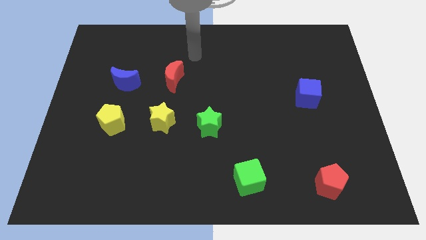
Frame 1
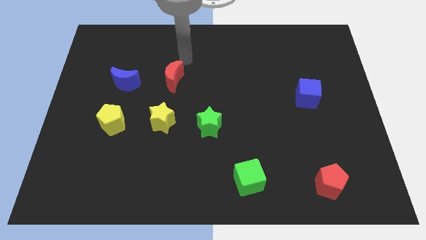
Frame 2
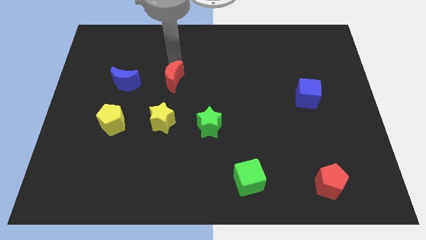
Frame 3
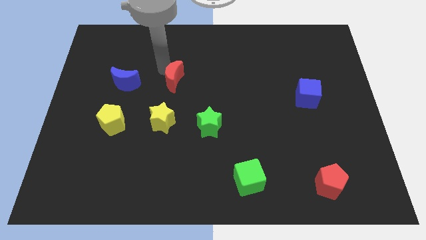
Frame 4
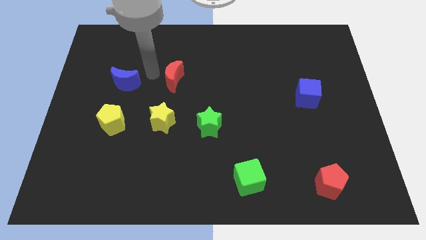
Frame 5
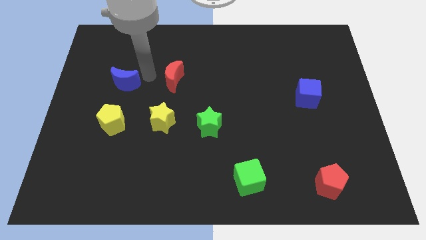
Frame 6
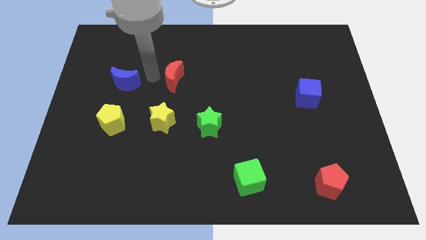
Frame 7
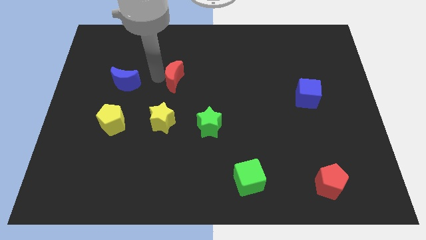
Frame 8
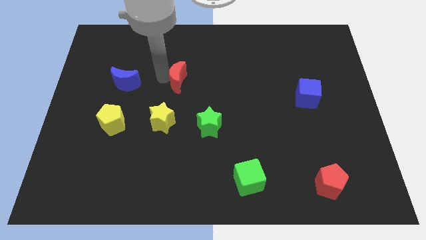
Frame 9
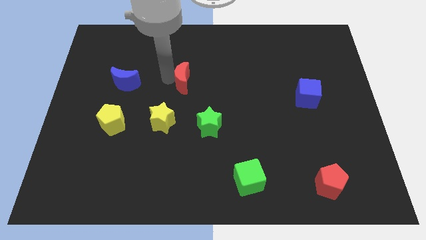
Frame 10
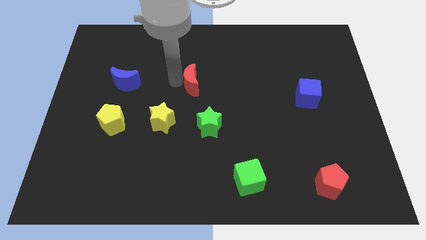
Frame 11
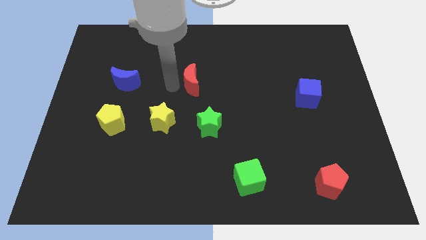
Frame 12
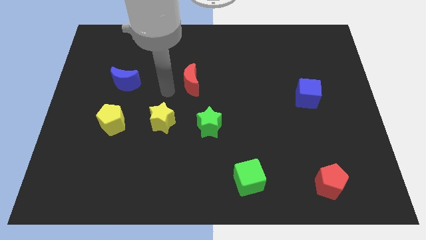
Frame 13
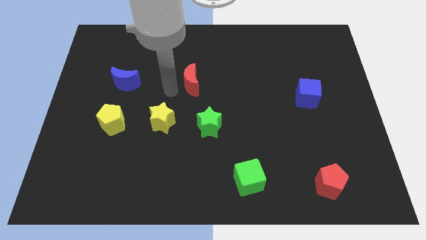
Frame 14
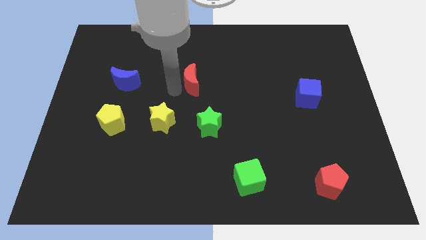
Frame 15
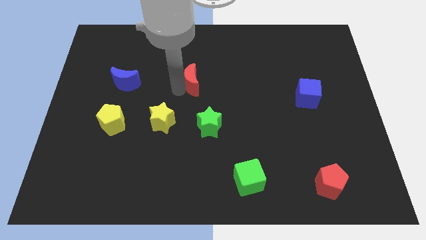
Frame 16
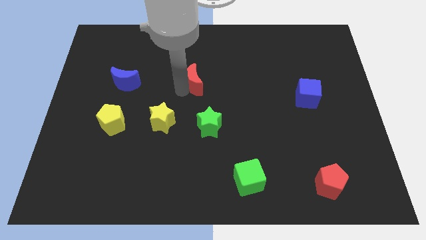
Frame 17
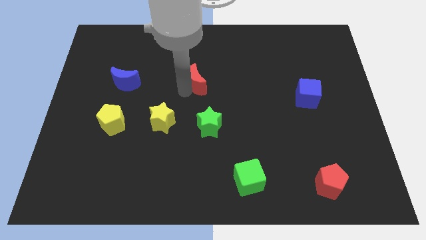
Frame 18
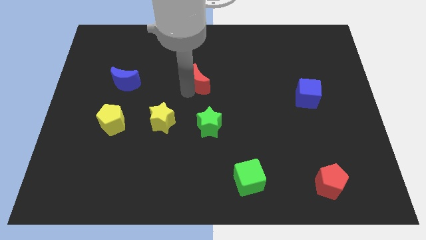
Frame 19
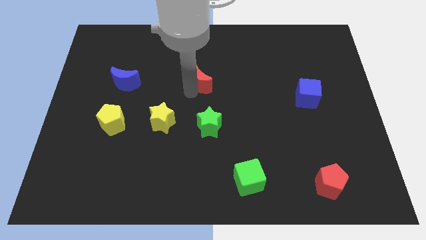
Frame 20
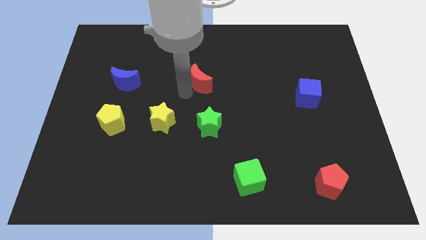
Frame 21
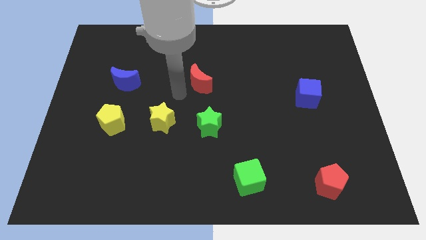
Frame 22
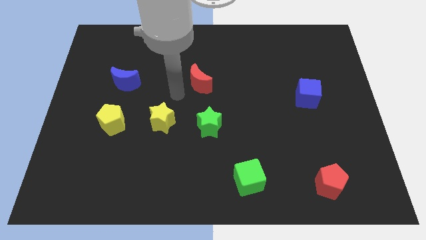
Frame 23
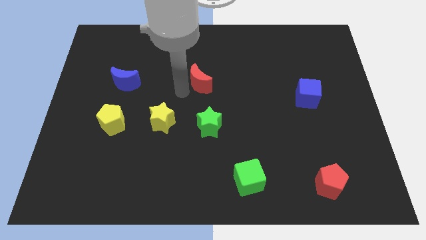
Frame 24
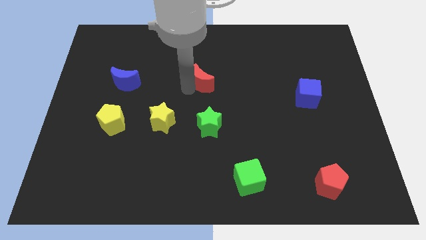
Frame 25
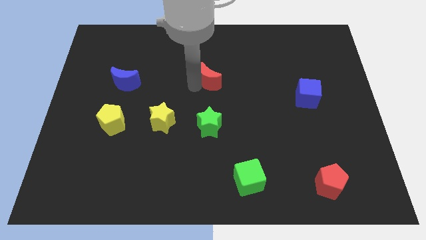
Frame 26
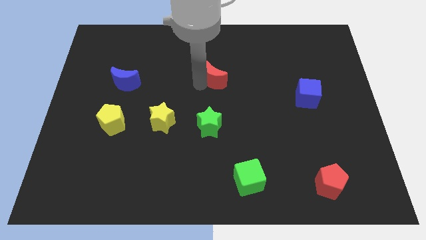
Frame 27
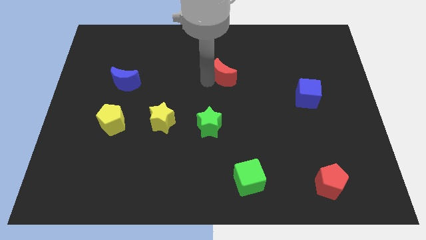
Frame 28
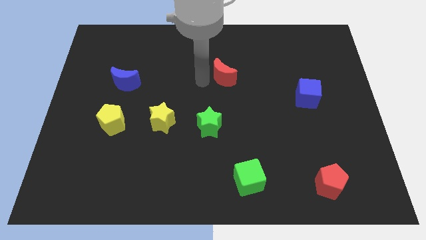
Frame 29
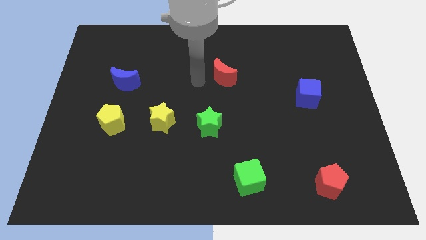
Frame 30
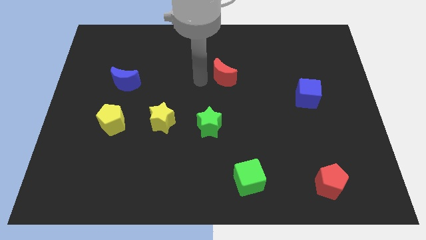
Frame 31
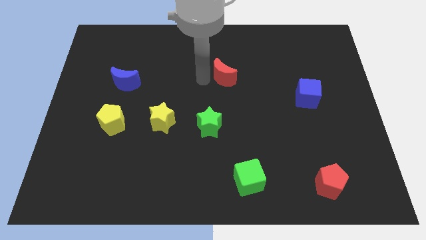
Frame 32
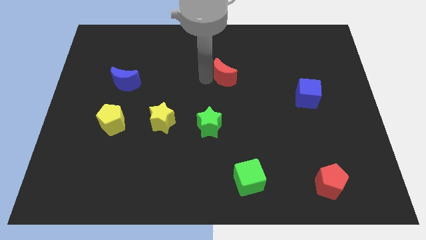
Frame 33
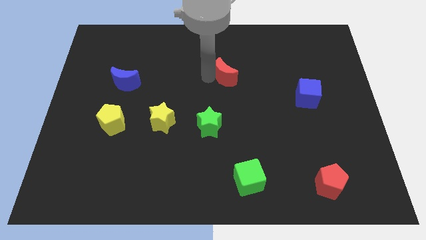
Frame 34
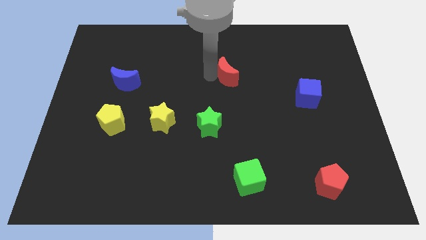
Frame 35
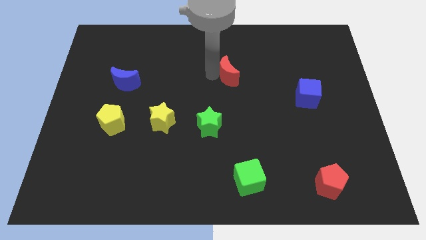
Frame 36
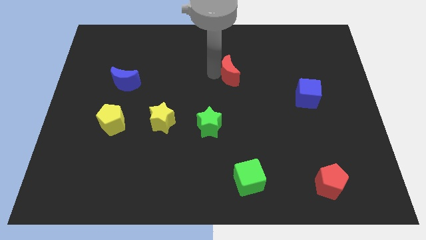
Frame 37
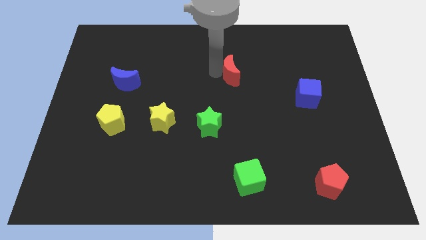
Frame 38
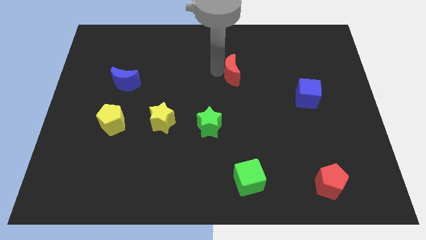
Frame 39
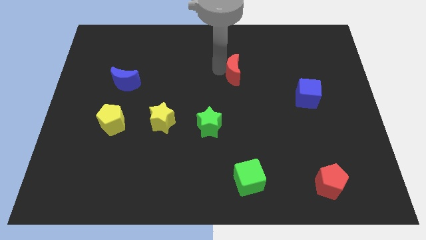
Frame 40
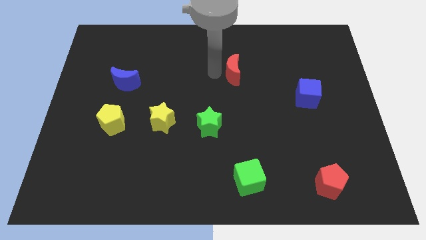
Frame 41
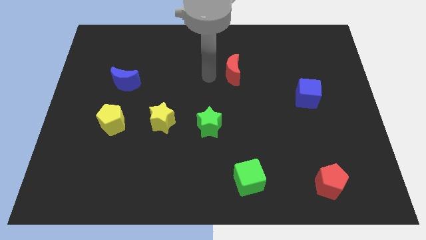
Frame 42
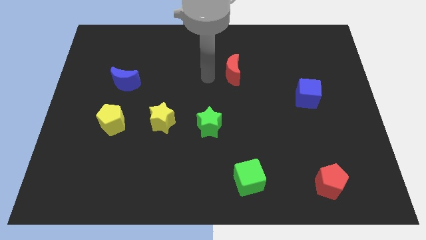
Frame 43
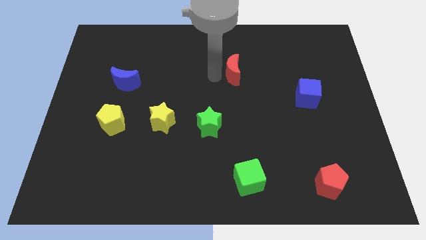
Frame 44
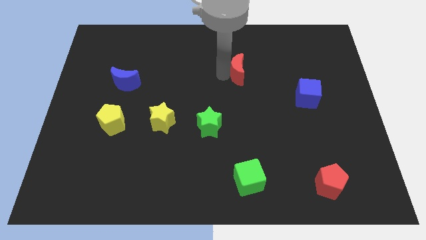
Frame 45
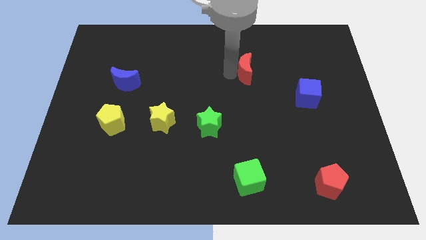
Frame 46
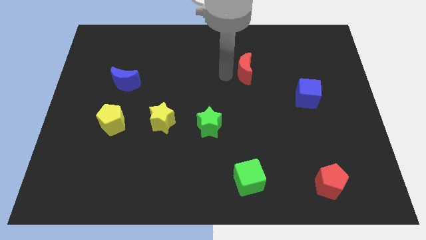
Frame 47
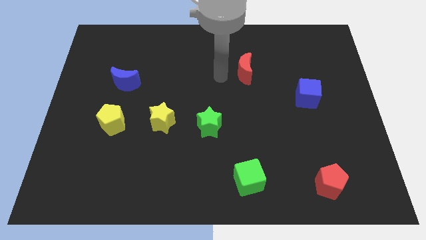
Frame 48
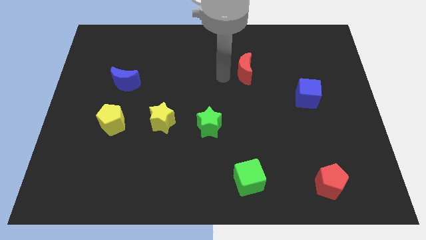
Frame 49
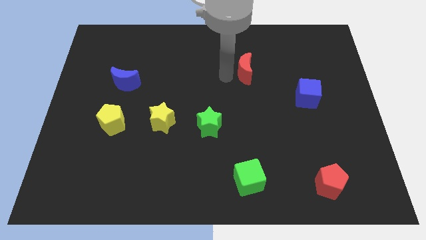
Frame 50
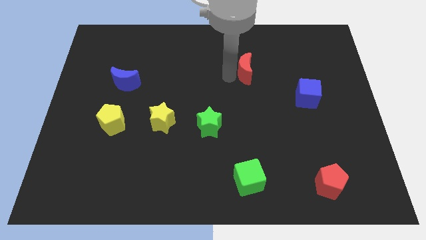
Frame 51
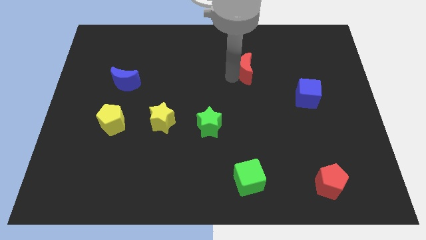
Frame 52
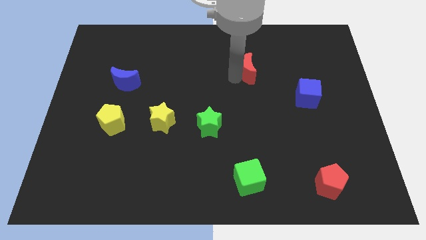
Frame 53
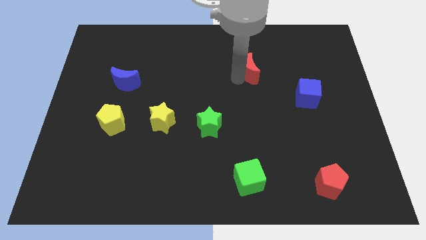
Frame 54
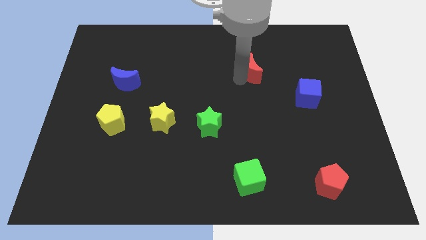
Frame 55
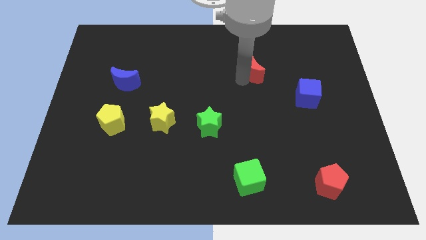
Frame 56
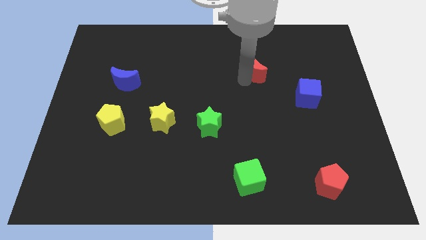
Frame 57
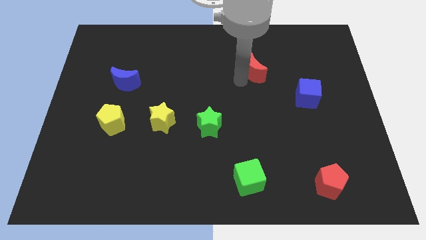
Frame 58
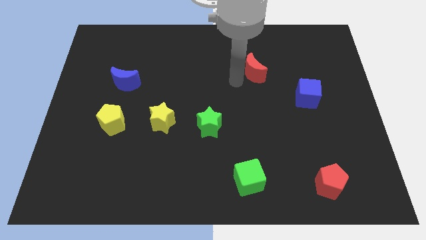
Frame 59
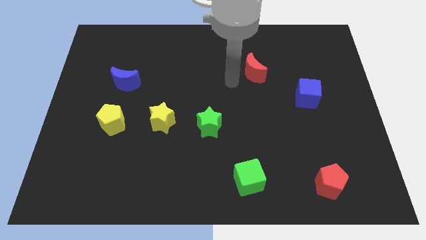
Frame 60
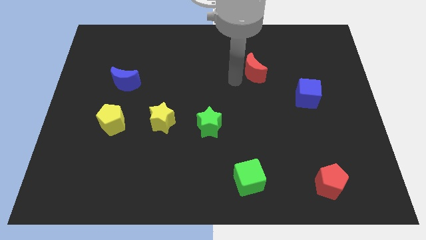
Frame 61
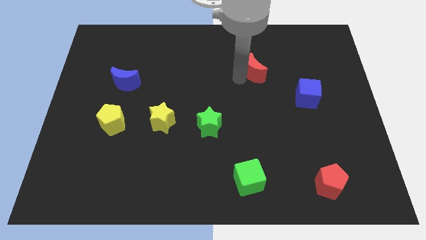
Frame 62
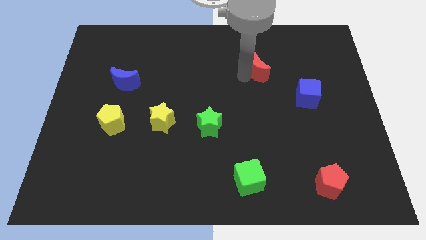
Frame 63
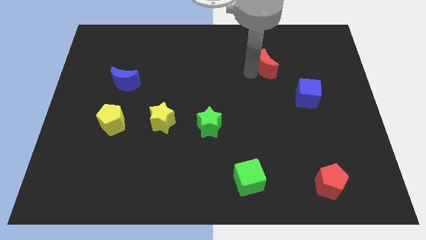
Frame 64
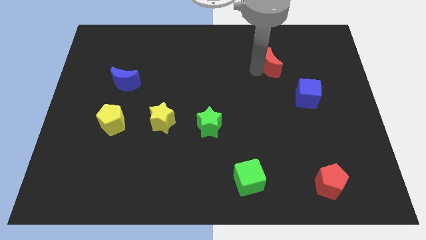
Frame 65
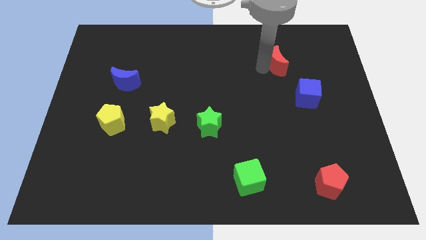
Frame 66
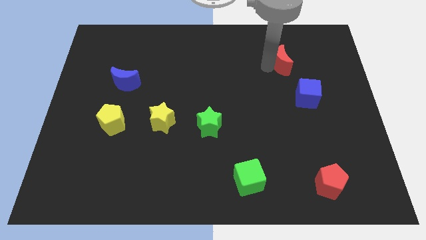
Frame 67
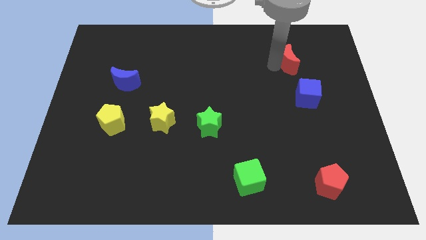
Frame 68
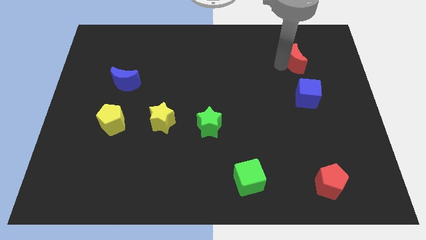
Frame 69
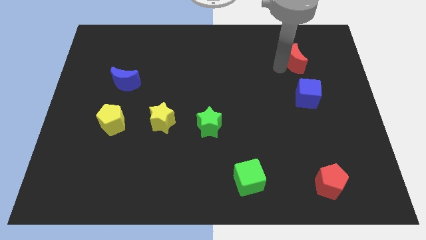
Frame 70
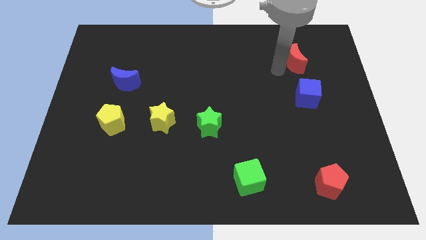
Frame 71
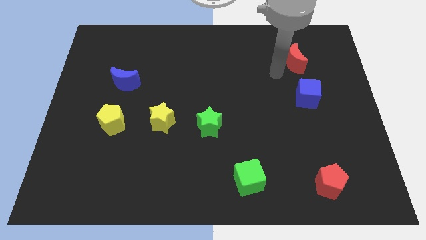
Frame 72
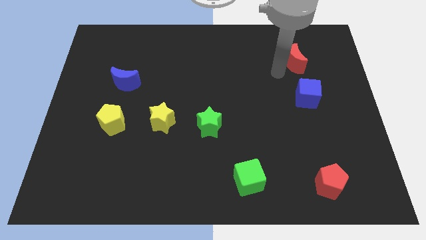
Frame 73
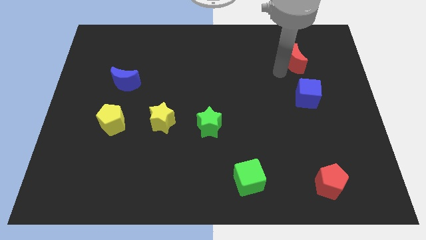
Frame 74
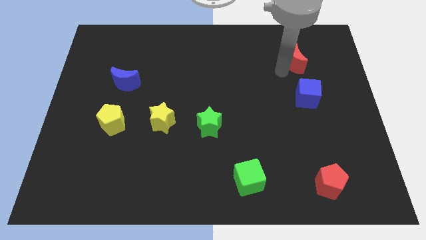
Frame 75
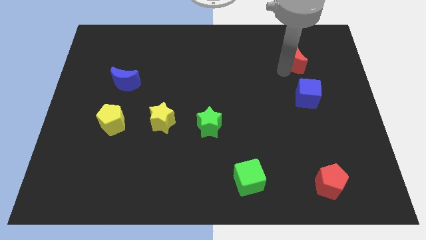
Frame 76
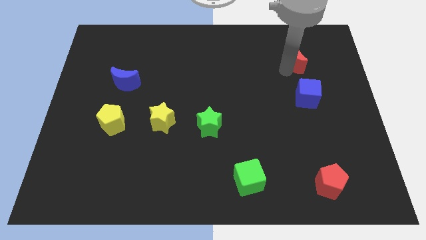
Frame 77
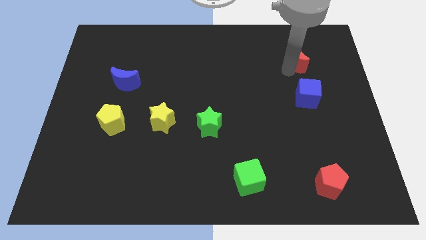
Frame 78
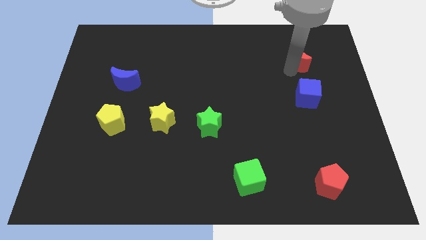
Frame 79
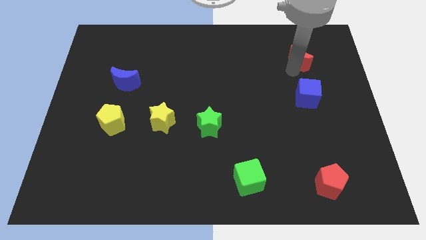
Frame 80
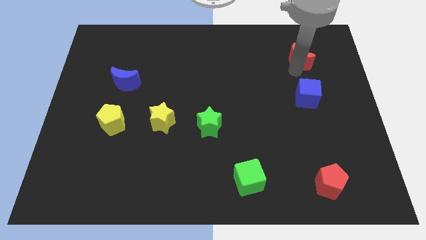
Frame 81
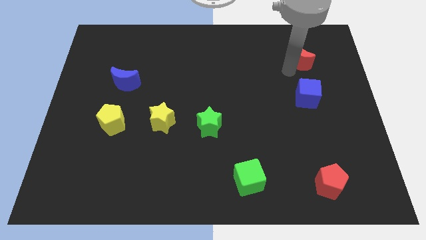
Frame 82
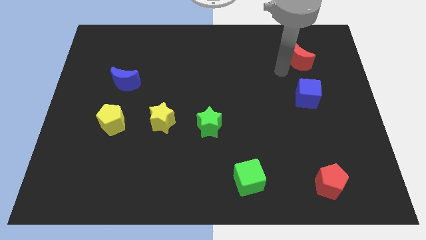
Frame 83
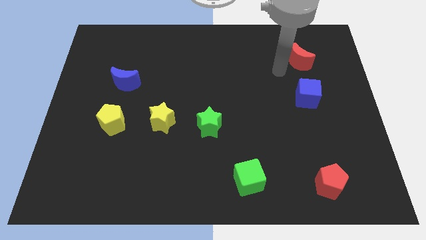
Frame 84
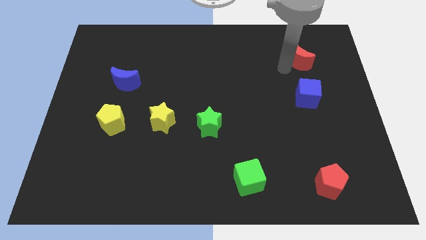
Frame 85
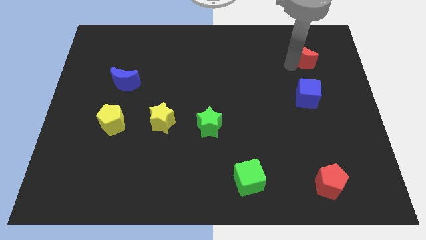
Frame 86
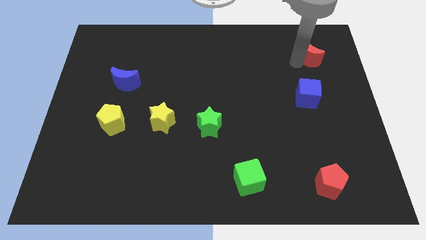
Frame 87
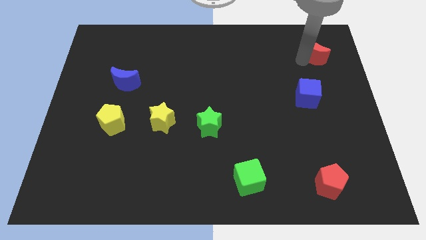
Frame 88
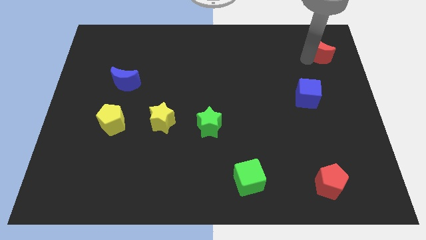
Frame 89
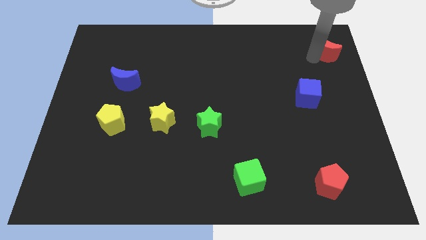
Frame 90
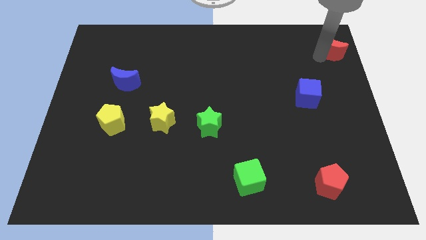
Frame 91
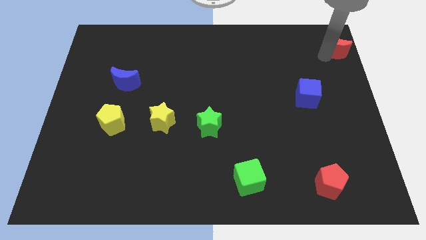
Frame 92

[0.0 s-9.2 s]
move the red moon to the top right
